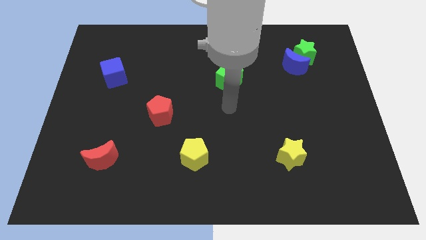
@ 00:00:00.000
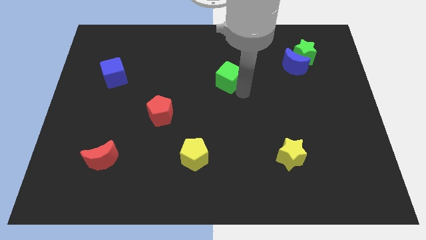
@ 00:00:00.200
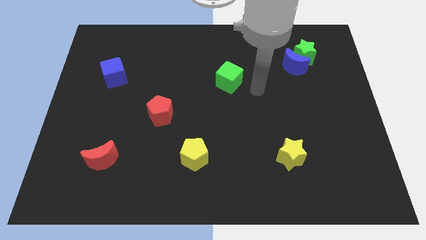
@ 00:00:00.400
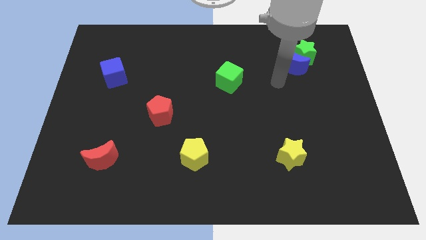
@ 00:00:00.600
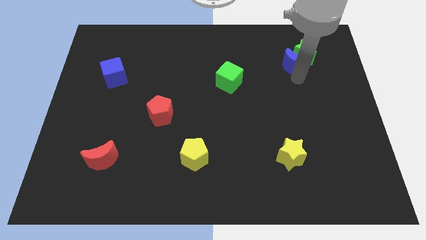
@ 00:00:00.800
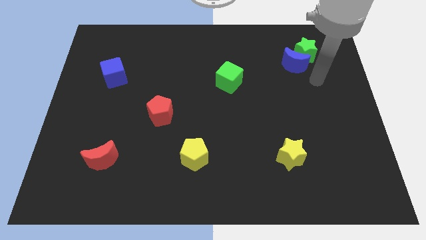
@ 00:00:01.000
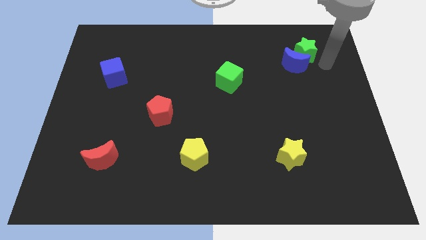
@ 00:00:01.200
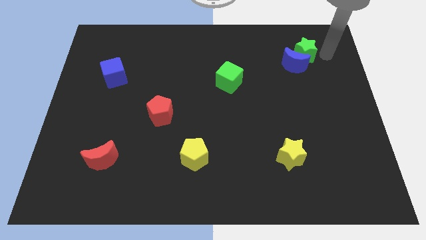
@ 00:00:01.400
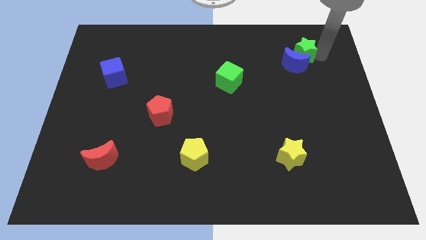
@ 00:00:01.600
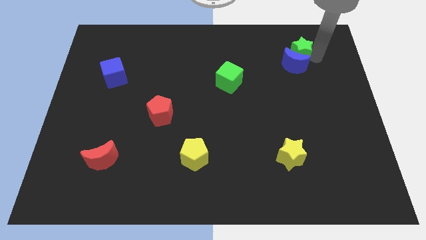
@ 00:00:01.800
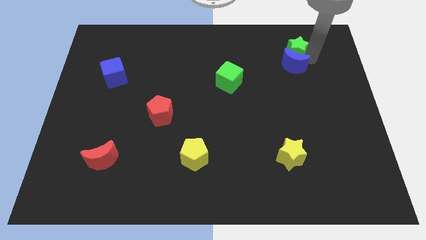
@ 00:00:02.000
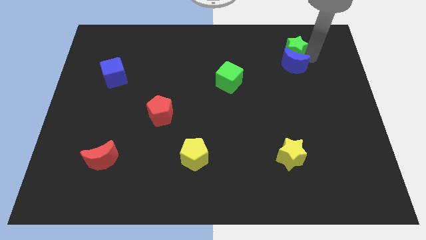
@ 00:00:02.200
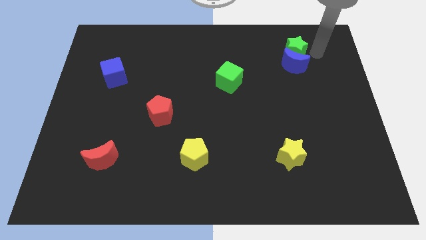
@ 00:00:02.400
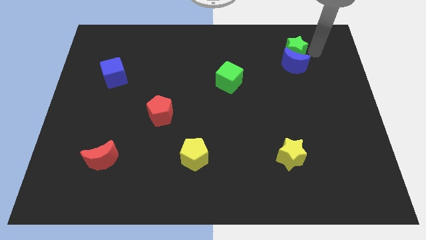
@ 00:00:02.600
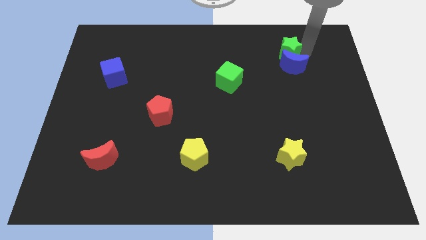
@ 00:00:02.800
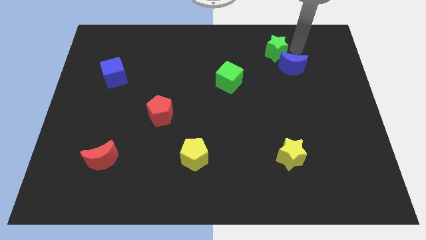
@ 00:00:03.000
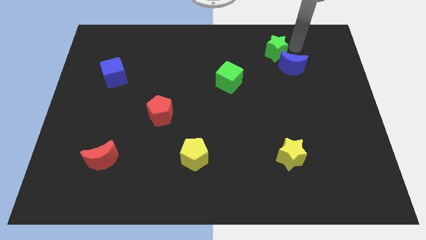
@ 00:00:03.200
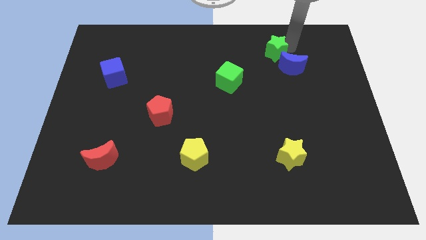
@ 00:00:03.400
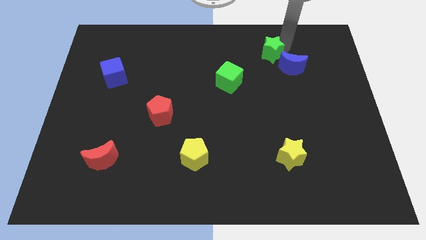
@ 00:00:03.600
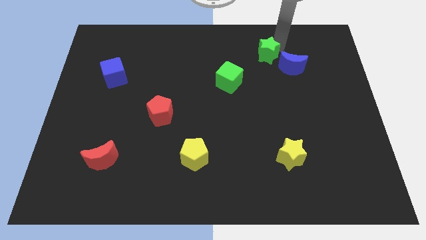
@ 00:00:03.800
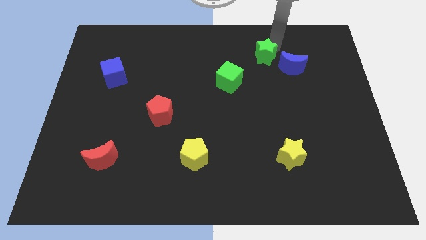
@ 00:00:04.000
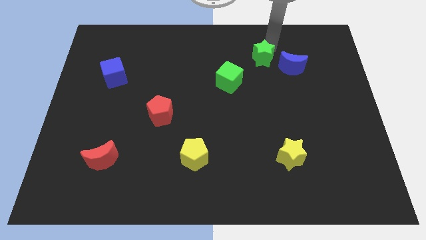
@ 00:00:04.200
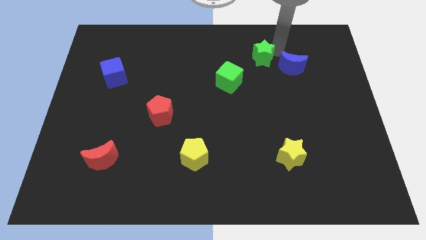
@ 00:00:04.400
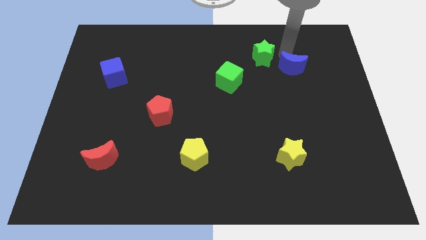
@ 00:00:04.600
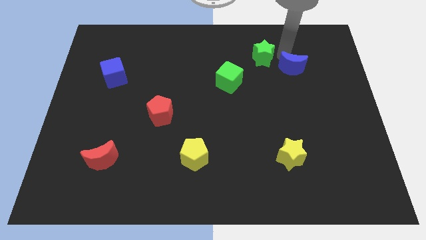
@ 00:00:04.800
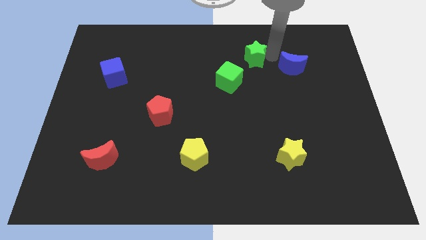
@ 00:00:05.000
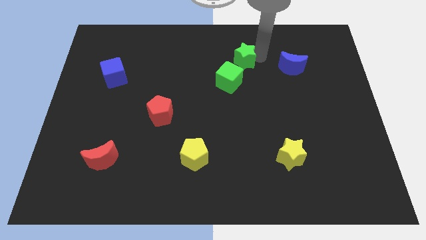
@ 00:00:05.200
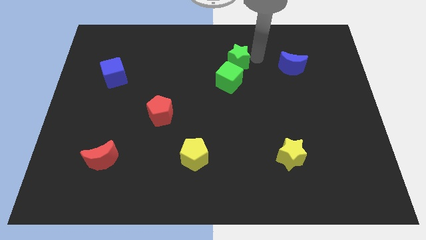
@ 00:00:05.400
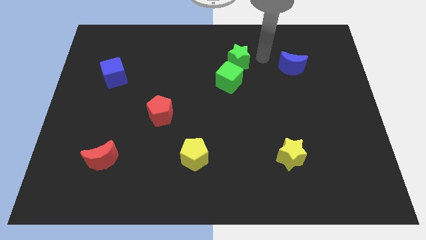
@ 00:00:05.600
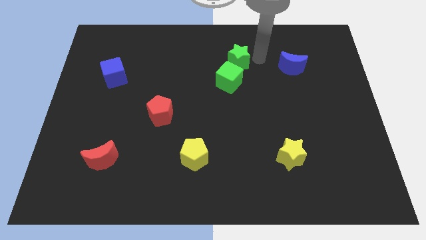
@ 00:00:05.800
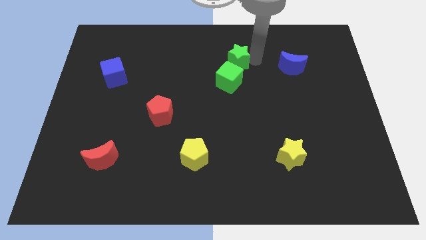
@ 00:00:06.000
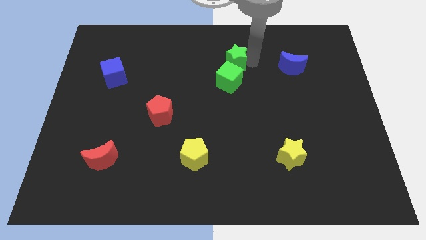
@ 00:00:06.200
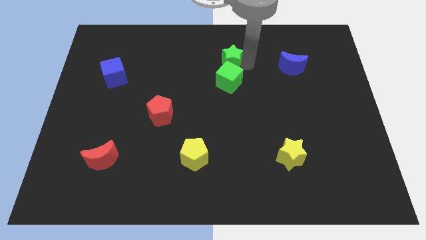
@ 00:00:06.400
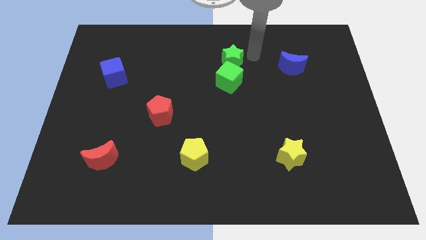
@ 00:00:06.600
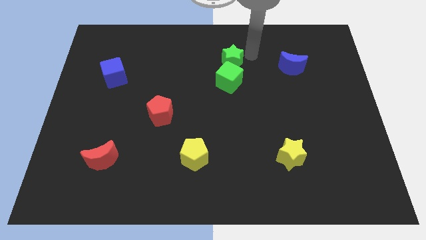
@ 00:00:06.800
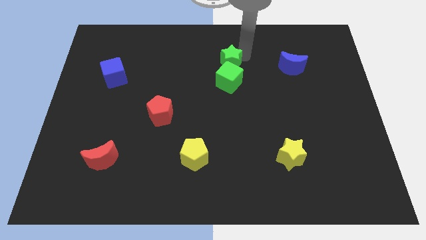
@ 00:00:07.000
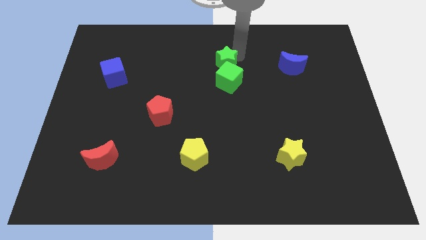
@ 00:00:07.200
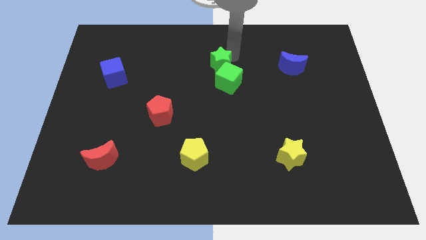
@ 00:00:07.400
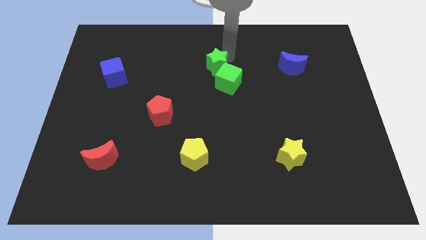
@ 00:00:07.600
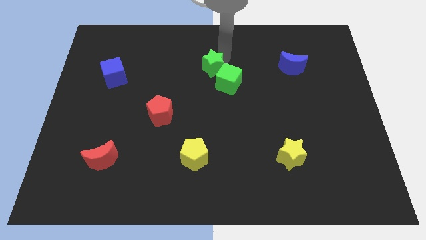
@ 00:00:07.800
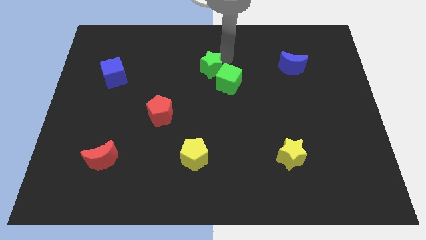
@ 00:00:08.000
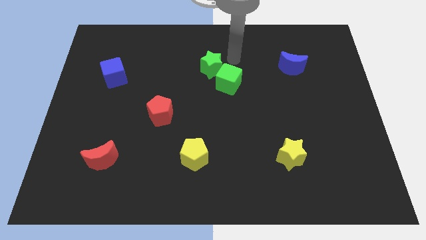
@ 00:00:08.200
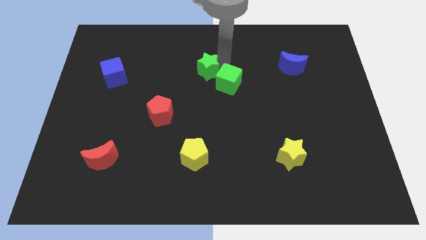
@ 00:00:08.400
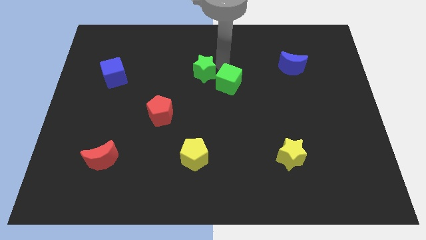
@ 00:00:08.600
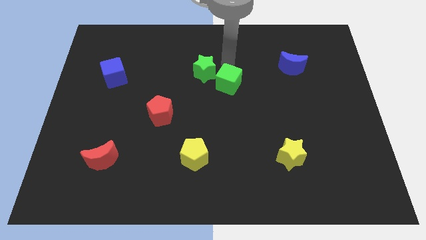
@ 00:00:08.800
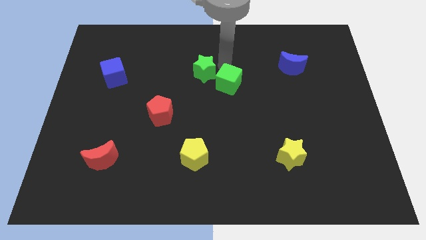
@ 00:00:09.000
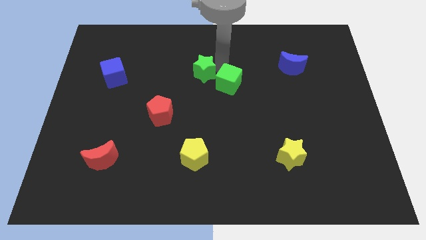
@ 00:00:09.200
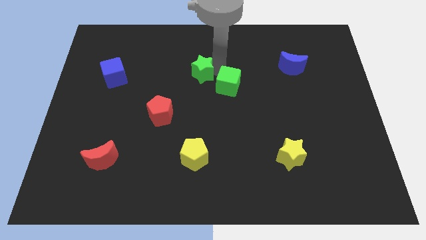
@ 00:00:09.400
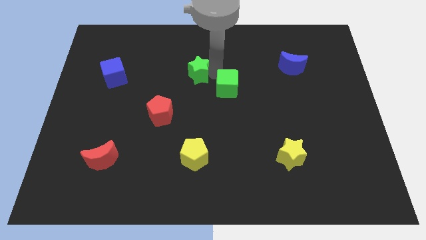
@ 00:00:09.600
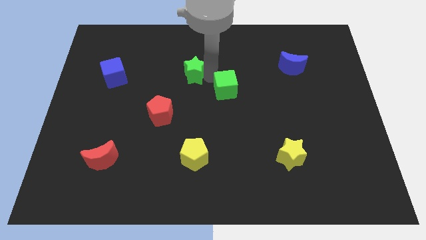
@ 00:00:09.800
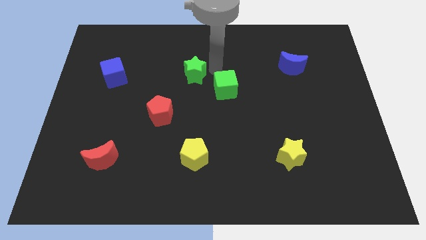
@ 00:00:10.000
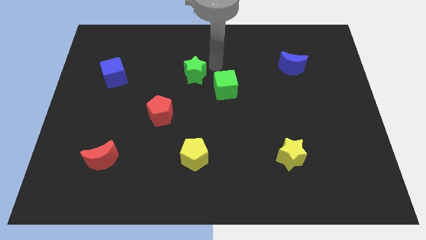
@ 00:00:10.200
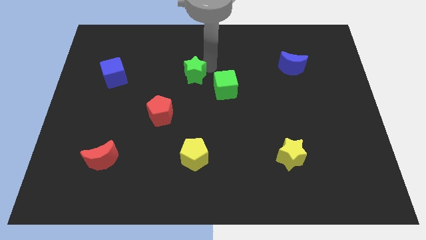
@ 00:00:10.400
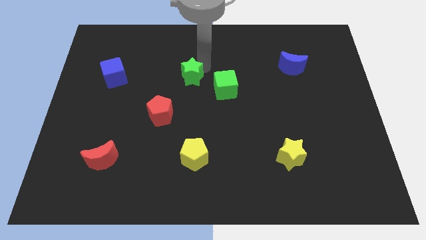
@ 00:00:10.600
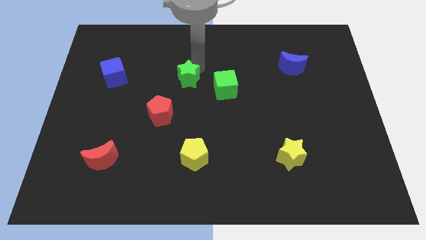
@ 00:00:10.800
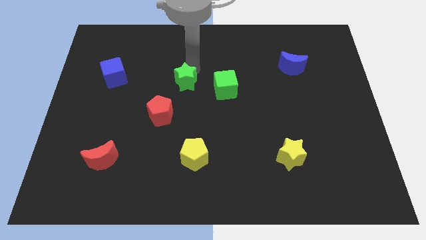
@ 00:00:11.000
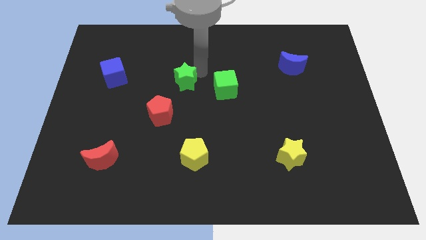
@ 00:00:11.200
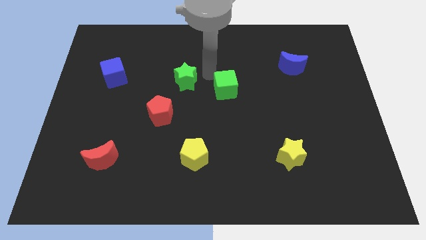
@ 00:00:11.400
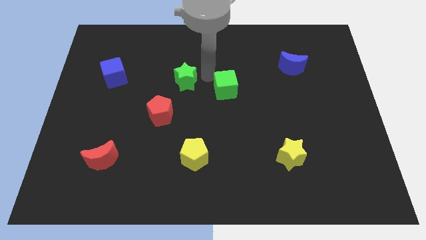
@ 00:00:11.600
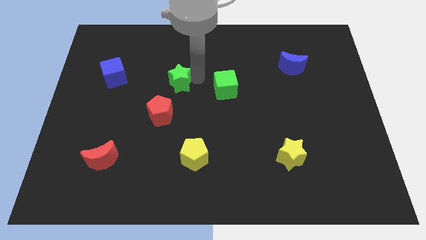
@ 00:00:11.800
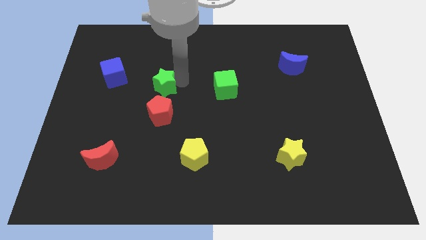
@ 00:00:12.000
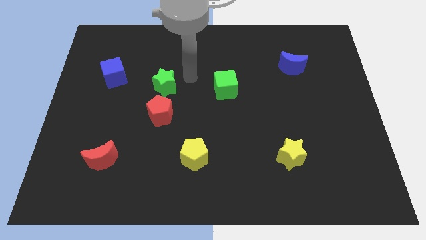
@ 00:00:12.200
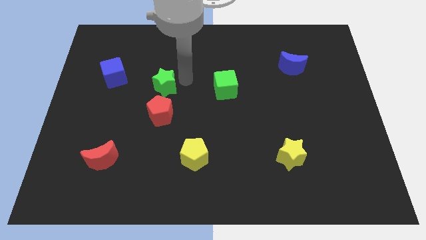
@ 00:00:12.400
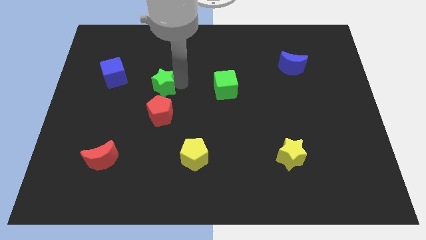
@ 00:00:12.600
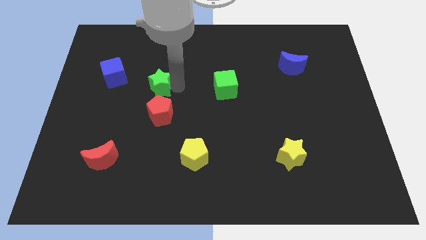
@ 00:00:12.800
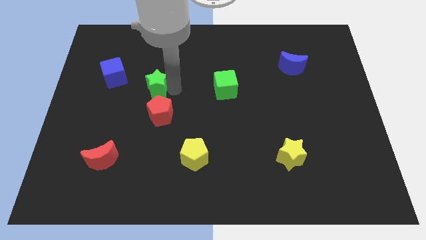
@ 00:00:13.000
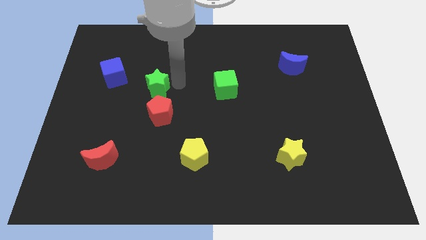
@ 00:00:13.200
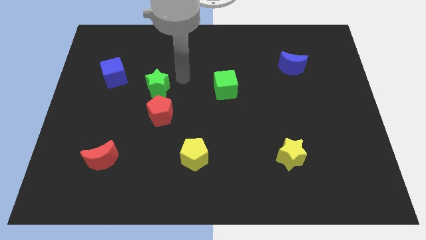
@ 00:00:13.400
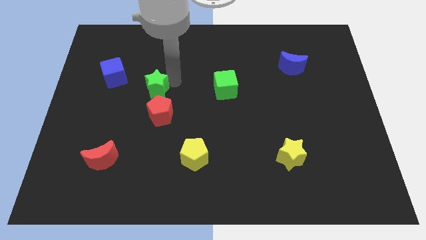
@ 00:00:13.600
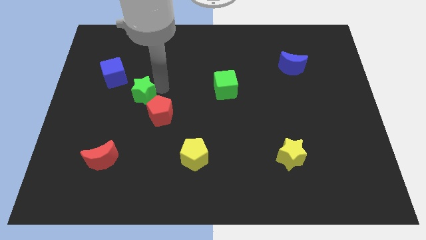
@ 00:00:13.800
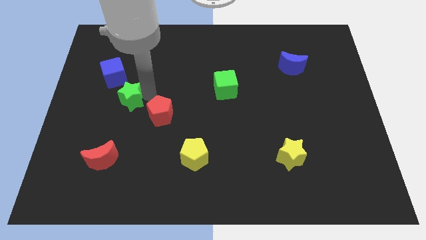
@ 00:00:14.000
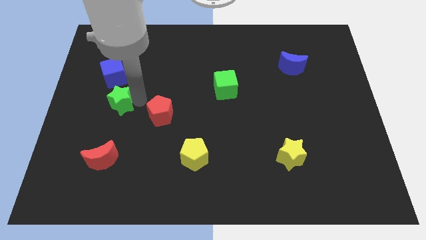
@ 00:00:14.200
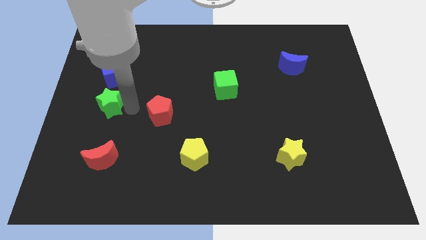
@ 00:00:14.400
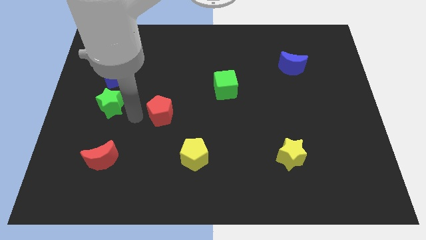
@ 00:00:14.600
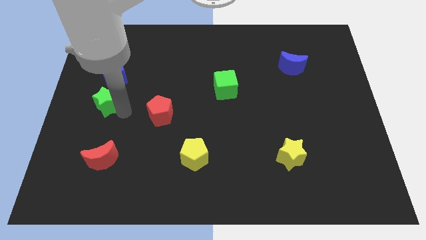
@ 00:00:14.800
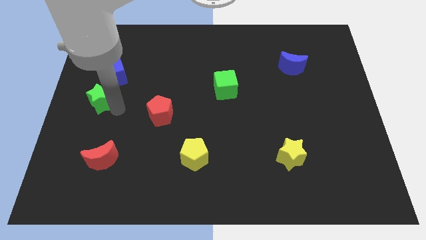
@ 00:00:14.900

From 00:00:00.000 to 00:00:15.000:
move the green star to the center left
